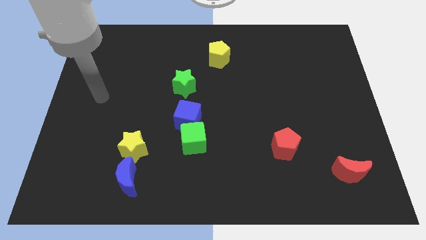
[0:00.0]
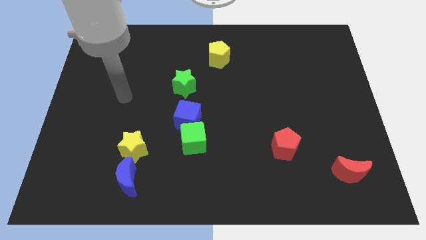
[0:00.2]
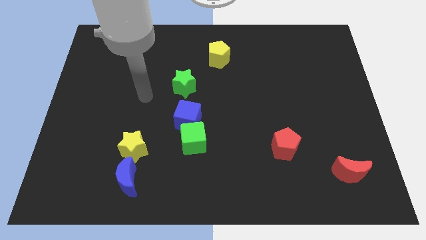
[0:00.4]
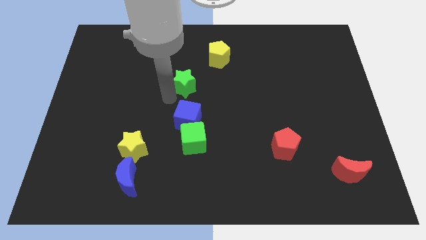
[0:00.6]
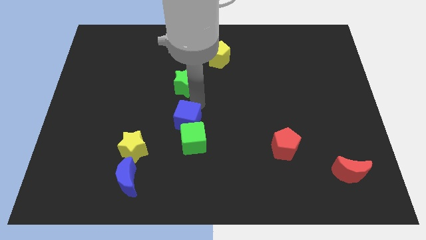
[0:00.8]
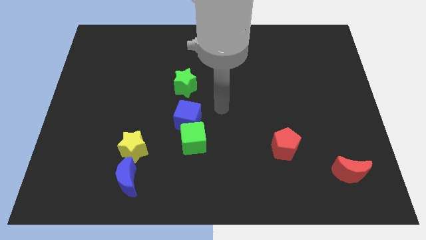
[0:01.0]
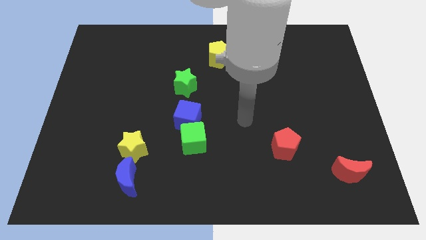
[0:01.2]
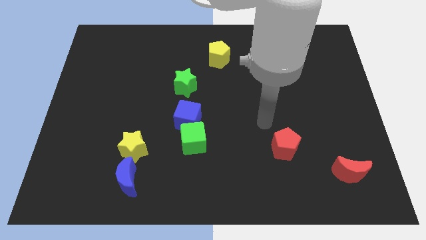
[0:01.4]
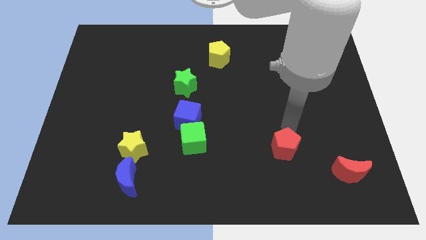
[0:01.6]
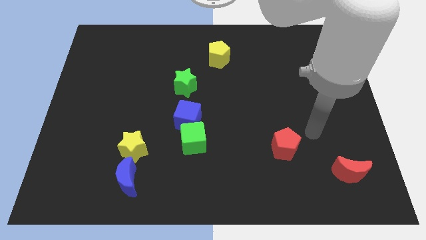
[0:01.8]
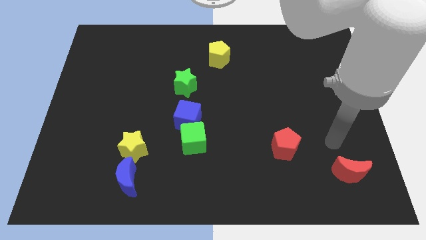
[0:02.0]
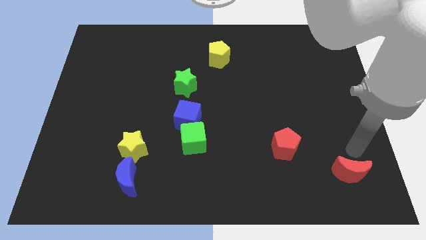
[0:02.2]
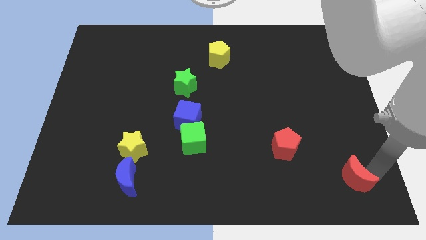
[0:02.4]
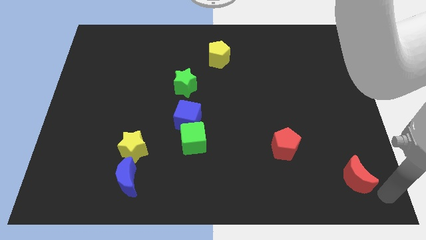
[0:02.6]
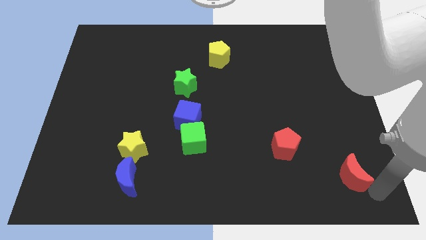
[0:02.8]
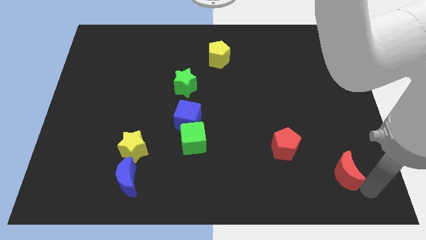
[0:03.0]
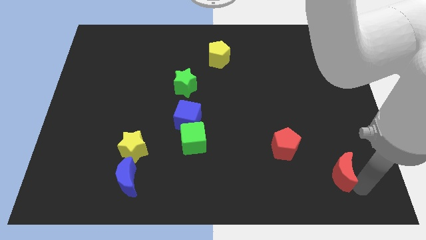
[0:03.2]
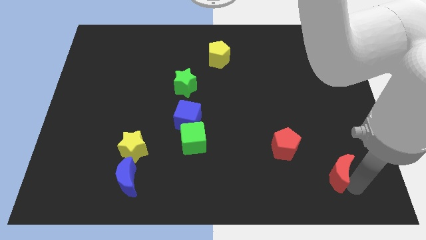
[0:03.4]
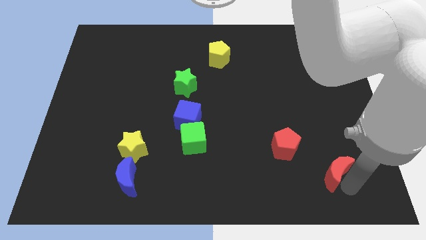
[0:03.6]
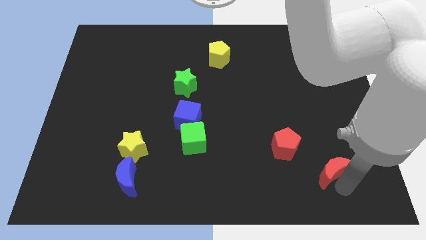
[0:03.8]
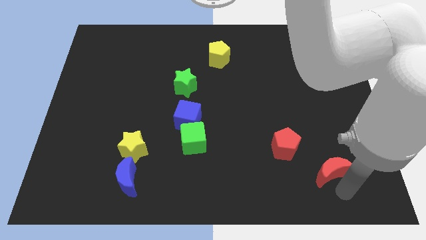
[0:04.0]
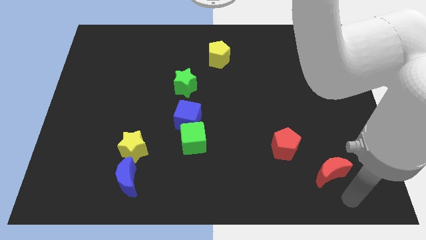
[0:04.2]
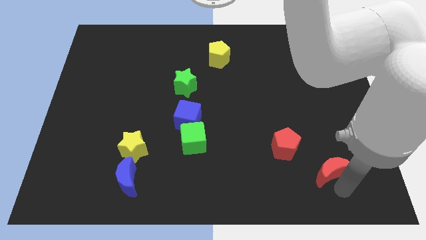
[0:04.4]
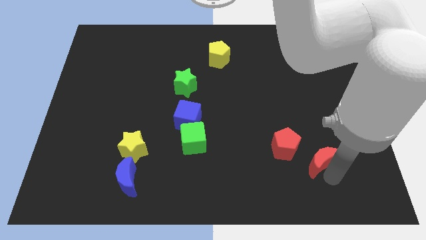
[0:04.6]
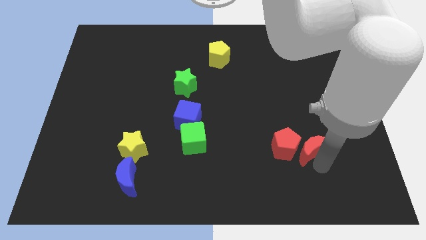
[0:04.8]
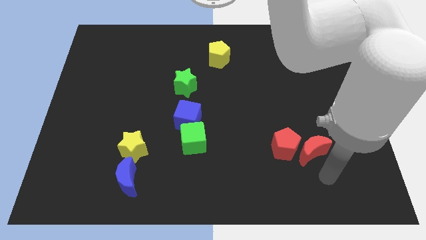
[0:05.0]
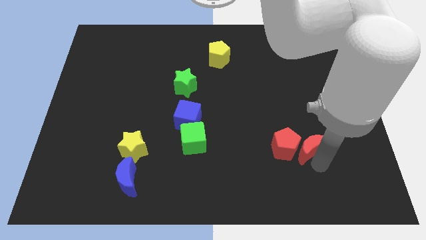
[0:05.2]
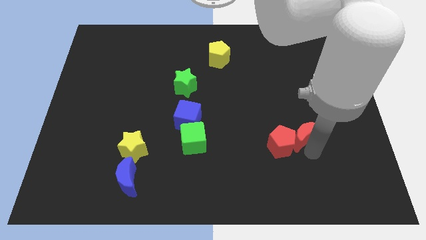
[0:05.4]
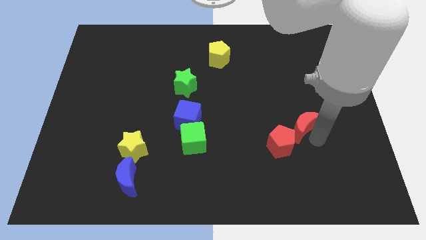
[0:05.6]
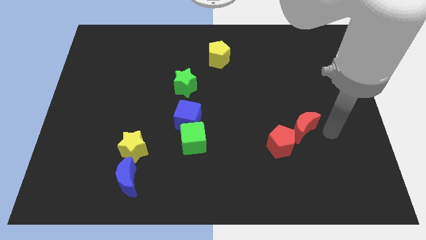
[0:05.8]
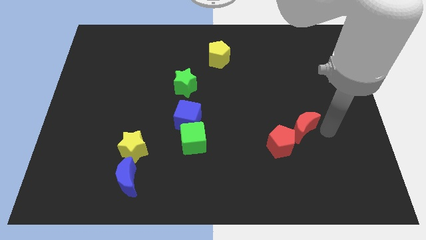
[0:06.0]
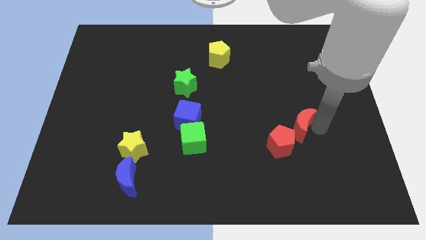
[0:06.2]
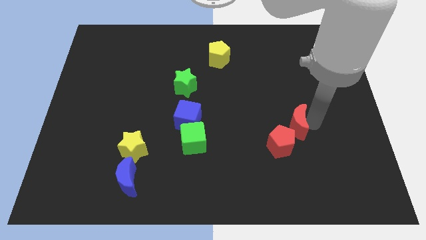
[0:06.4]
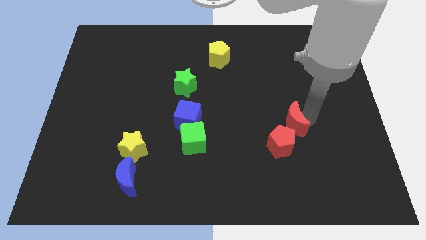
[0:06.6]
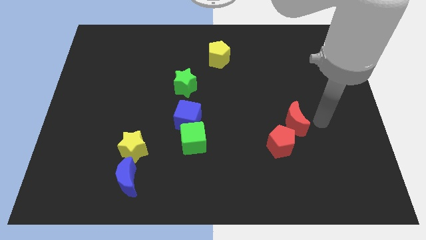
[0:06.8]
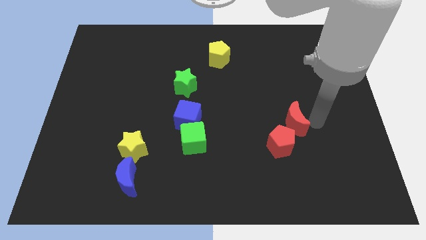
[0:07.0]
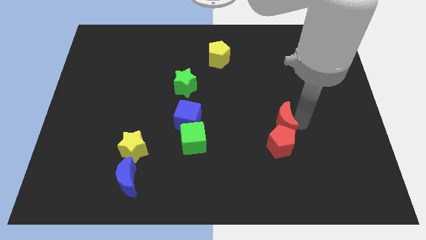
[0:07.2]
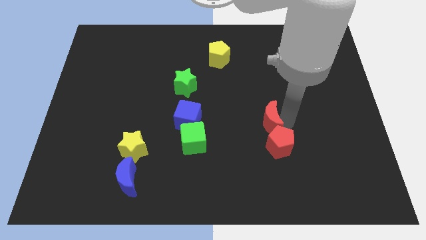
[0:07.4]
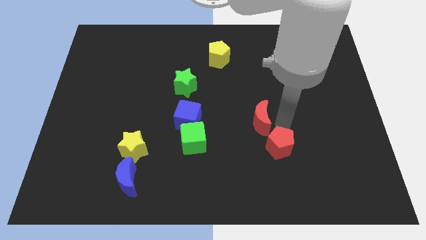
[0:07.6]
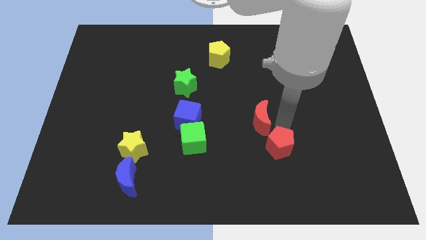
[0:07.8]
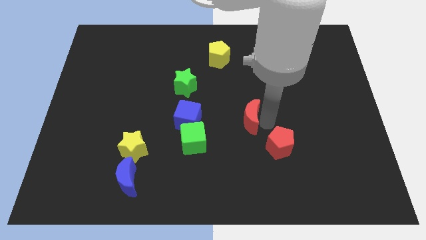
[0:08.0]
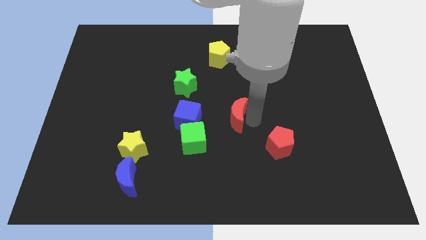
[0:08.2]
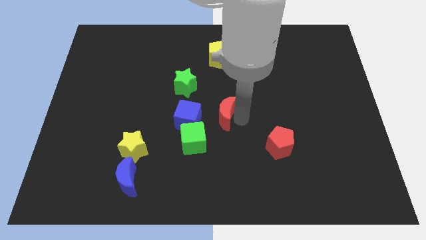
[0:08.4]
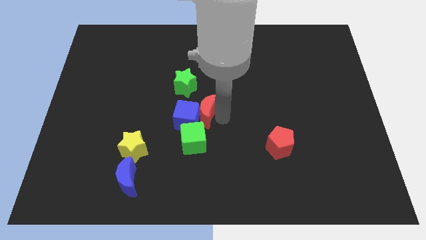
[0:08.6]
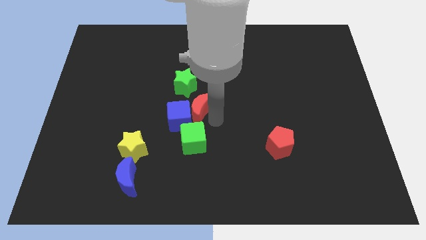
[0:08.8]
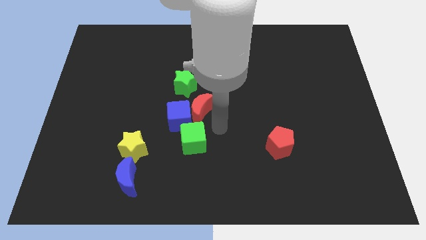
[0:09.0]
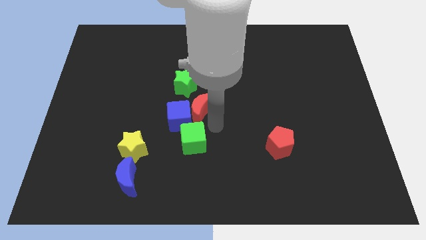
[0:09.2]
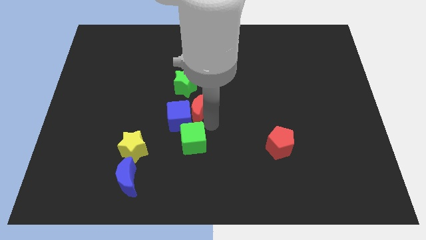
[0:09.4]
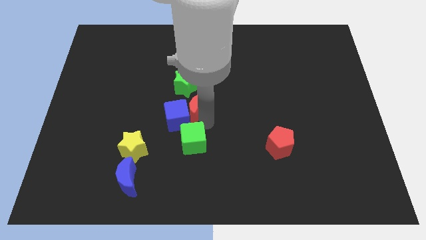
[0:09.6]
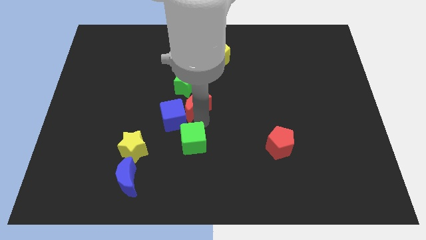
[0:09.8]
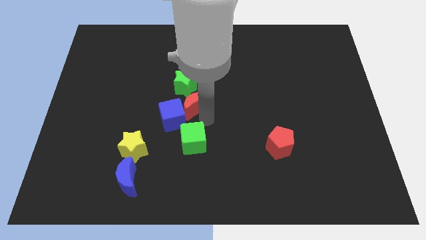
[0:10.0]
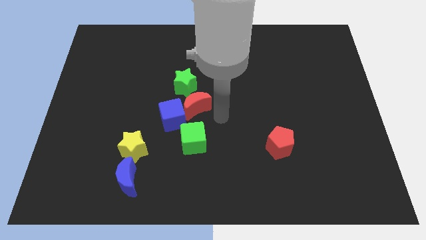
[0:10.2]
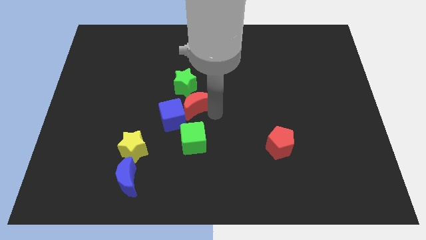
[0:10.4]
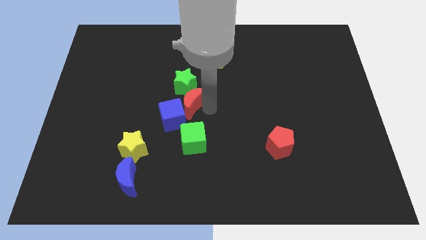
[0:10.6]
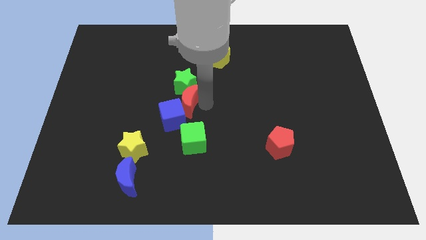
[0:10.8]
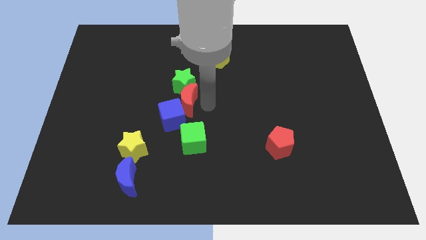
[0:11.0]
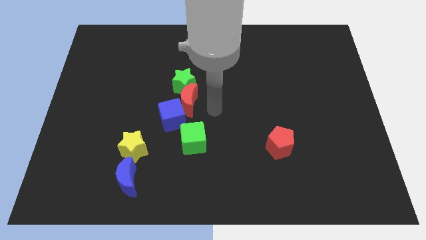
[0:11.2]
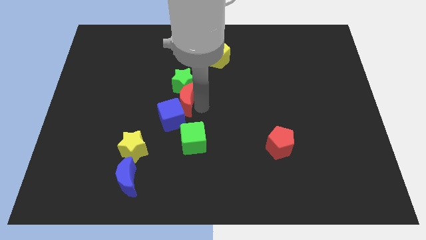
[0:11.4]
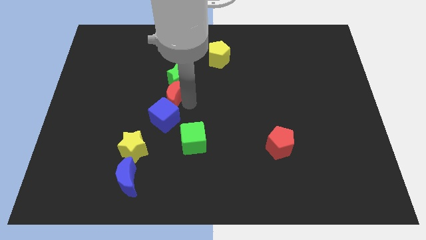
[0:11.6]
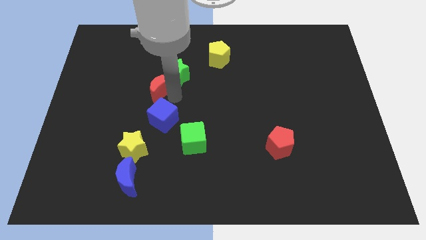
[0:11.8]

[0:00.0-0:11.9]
move the red moon to the left side of the green star

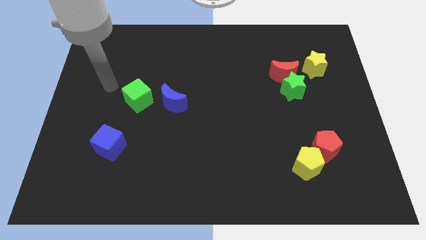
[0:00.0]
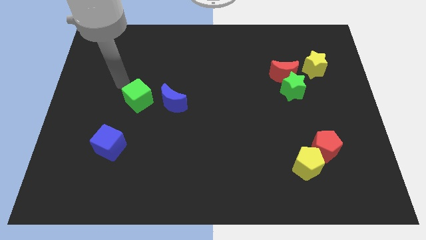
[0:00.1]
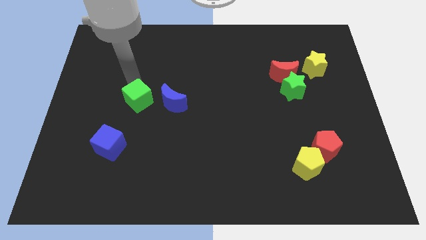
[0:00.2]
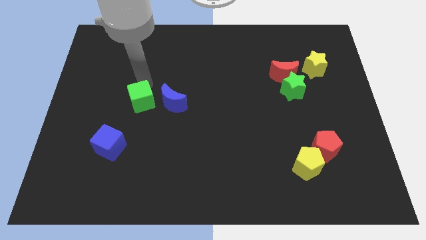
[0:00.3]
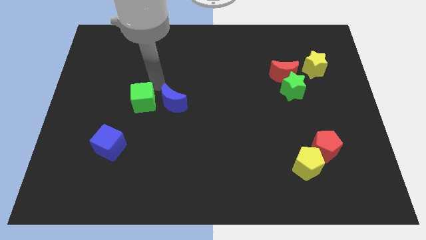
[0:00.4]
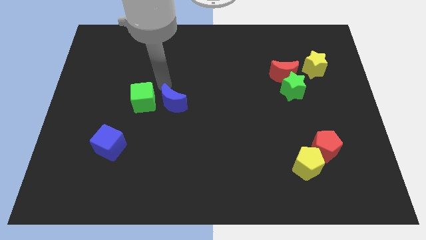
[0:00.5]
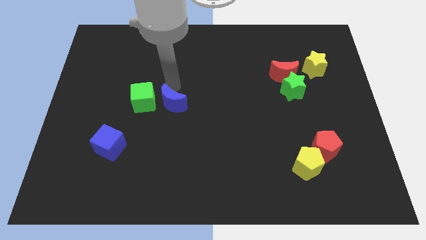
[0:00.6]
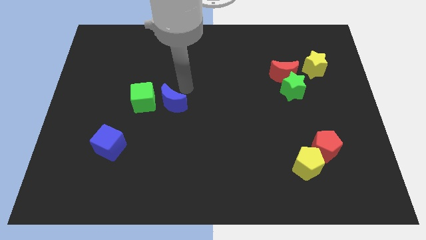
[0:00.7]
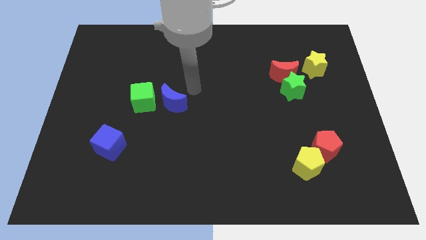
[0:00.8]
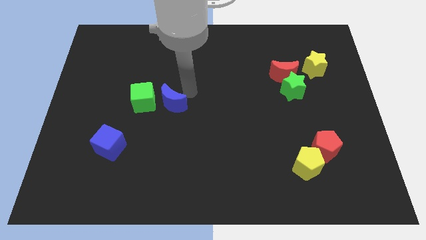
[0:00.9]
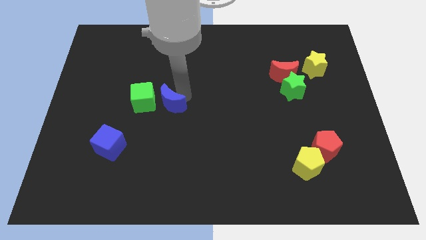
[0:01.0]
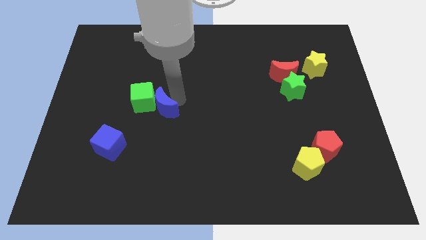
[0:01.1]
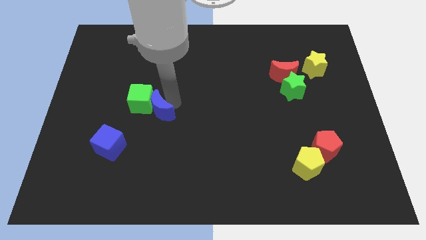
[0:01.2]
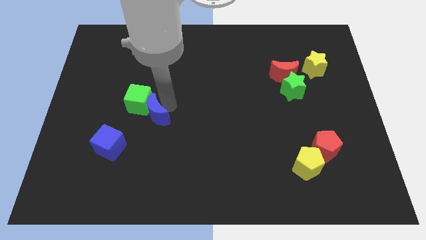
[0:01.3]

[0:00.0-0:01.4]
put the blue moon diagonally up and to the right of the blue cube

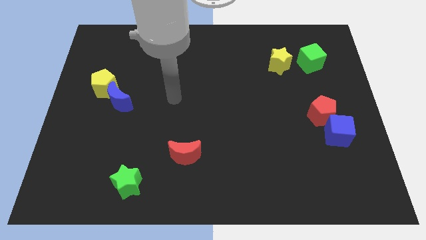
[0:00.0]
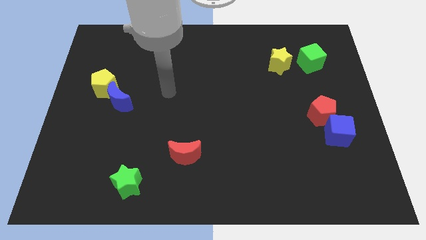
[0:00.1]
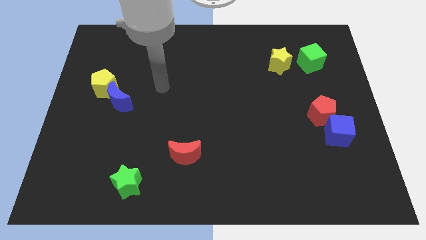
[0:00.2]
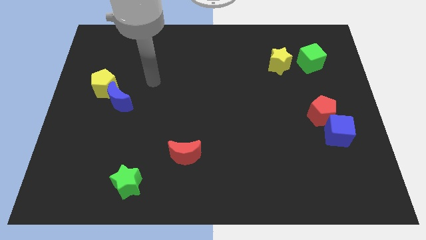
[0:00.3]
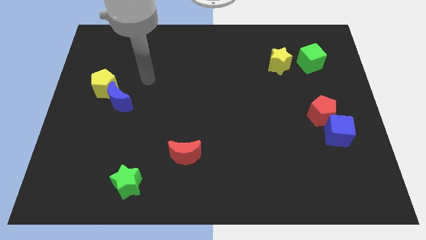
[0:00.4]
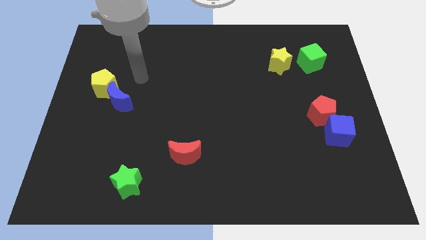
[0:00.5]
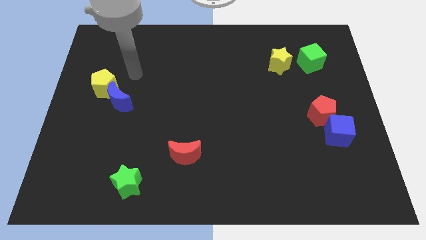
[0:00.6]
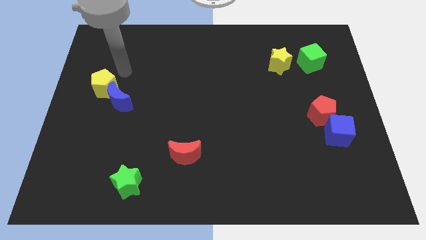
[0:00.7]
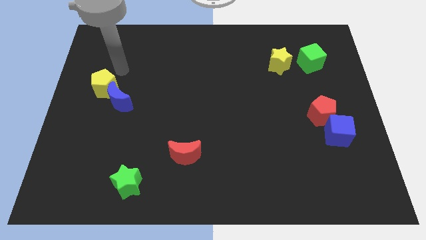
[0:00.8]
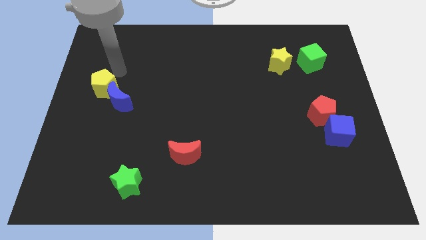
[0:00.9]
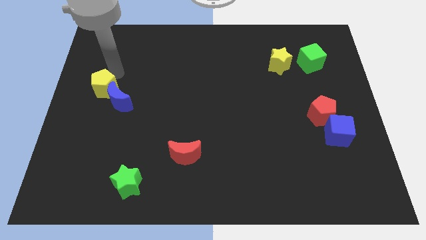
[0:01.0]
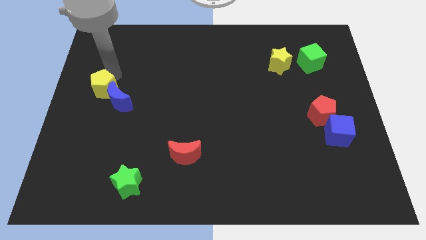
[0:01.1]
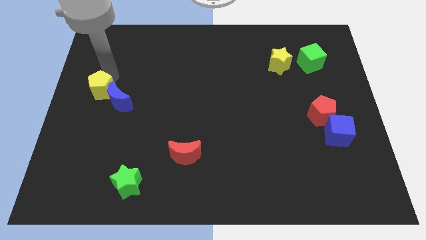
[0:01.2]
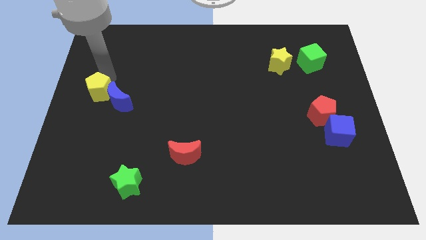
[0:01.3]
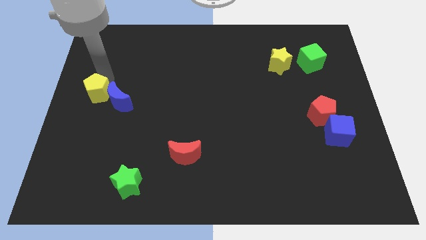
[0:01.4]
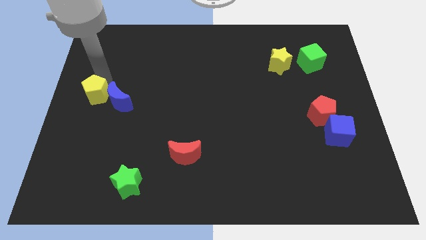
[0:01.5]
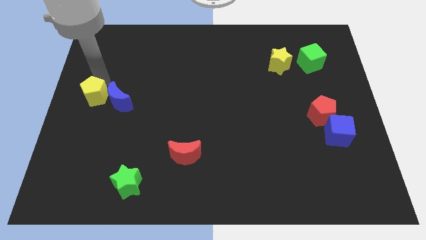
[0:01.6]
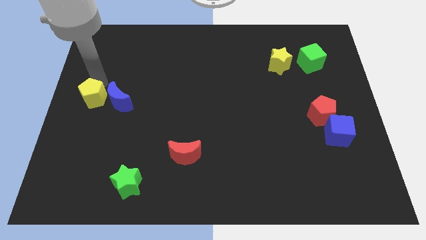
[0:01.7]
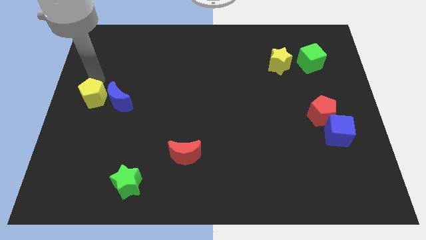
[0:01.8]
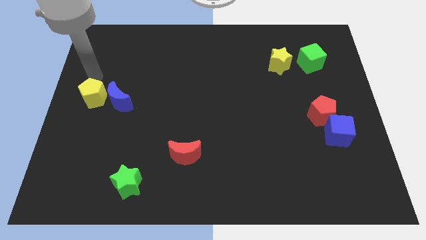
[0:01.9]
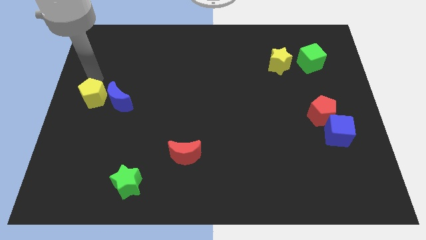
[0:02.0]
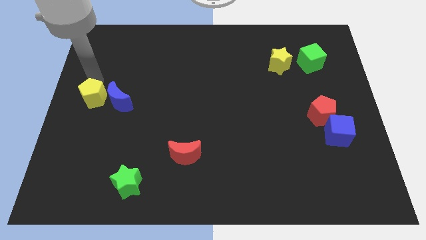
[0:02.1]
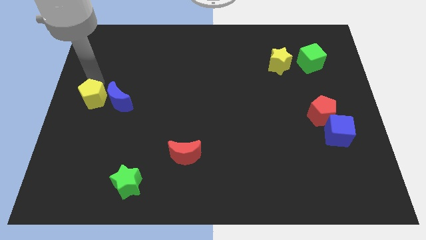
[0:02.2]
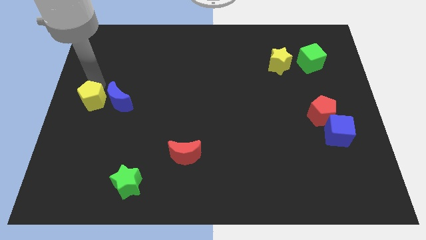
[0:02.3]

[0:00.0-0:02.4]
put the yellow pentagon to the bottom left side of the blue moon
